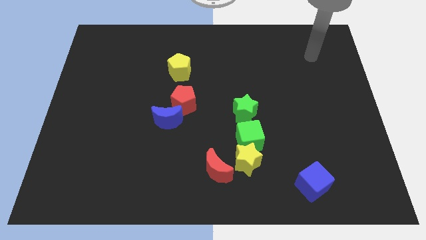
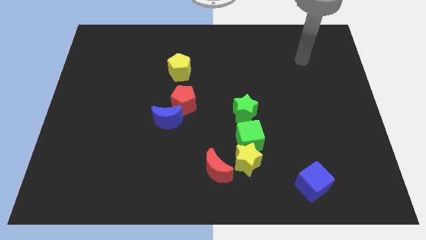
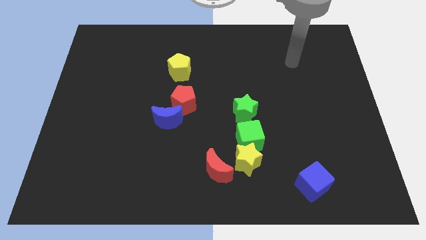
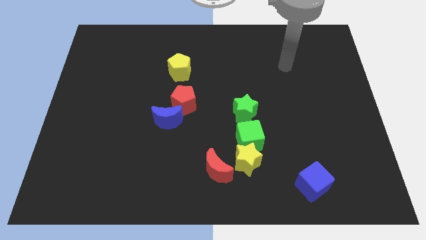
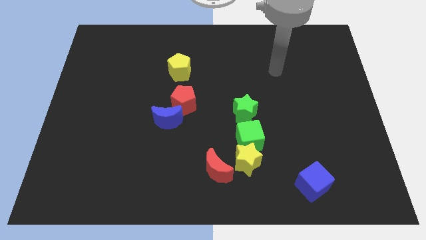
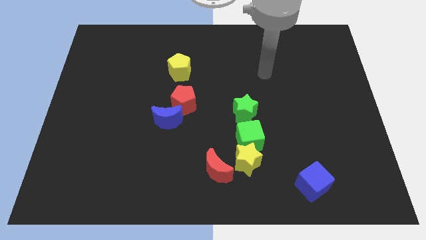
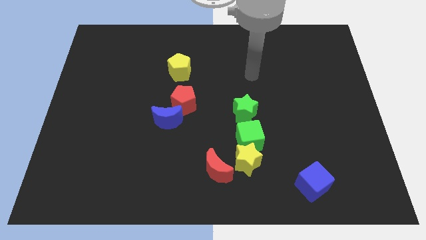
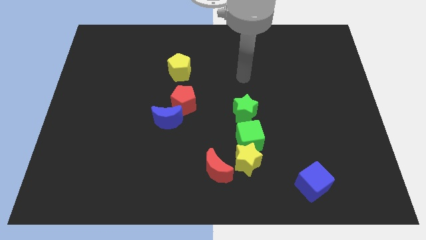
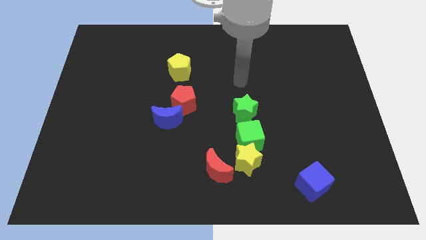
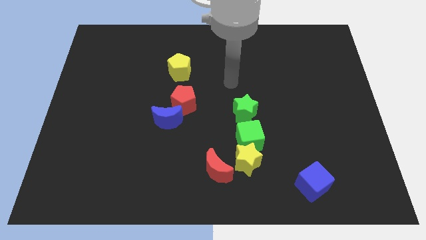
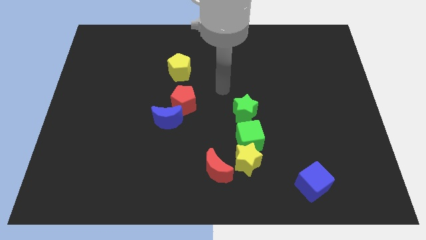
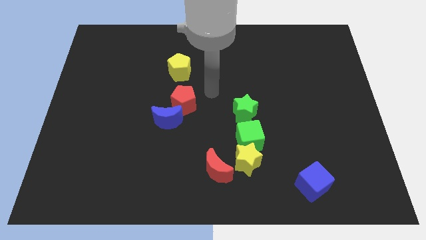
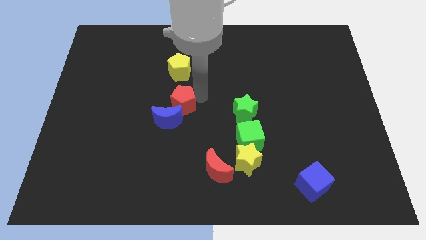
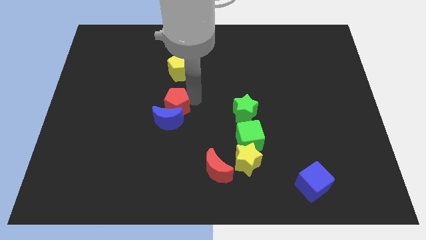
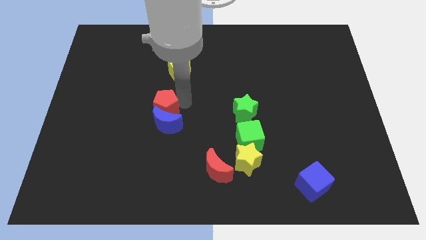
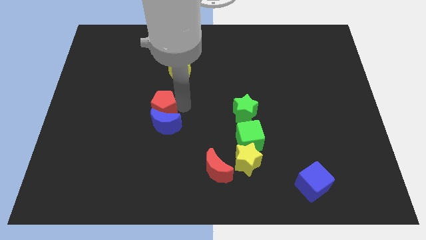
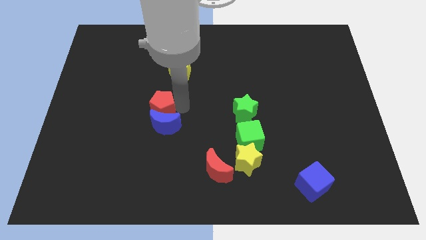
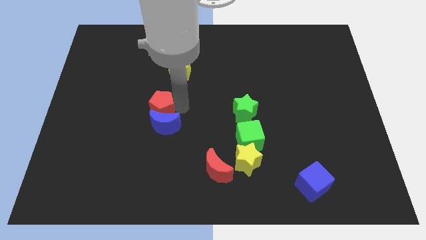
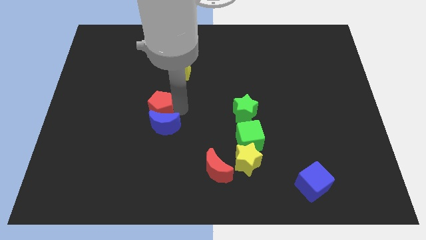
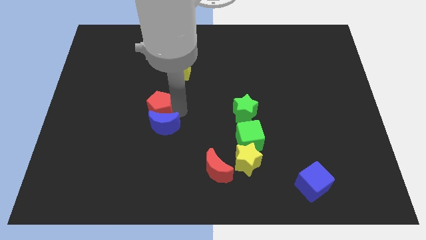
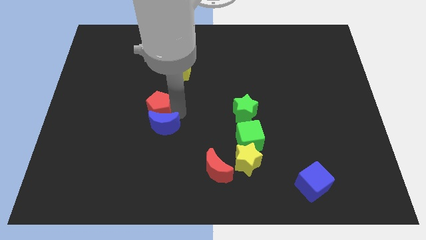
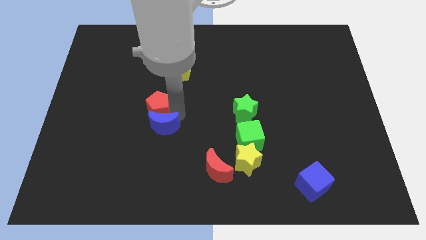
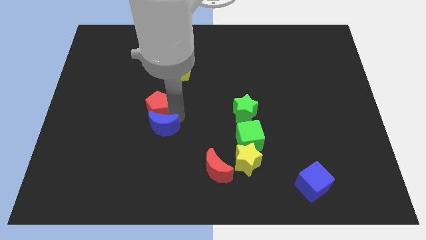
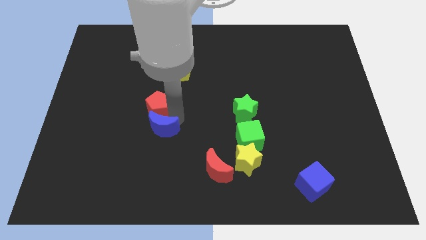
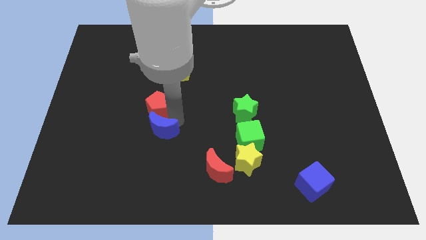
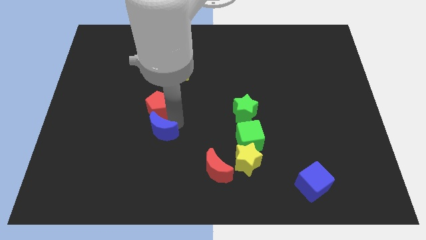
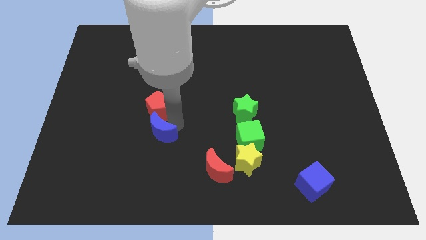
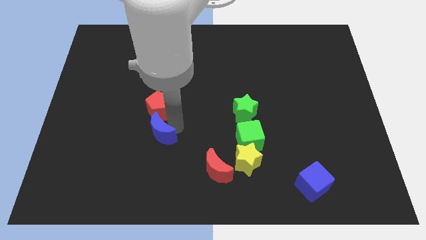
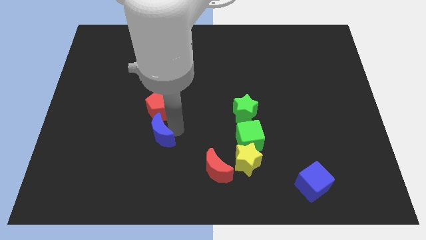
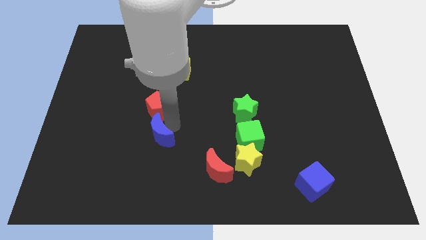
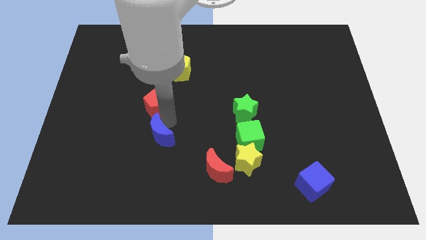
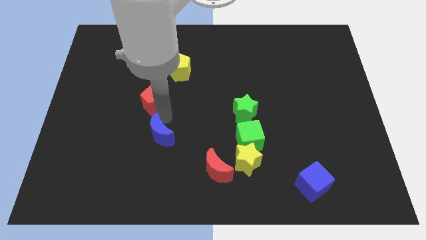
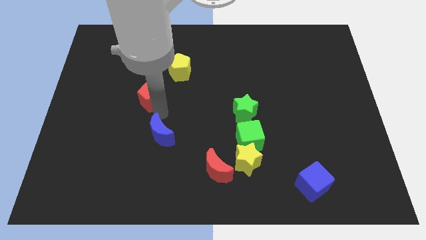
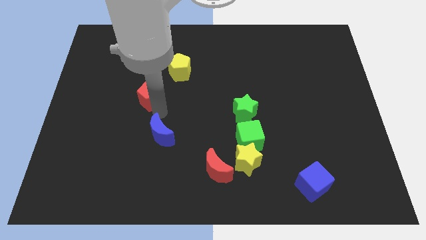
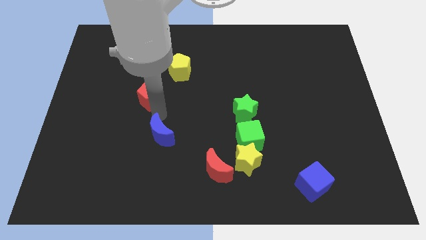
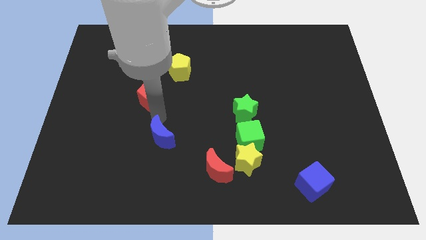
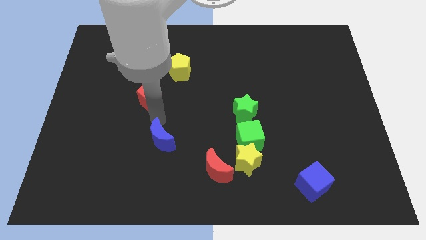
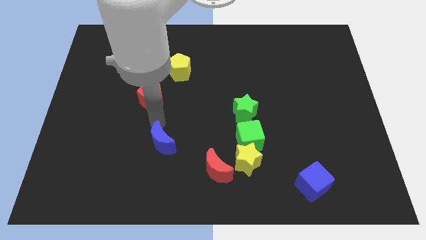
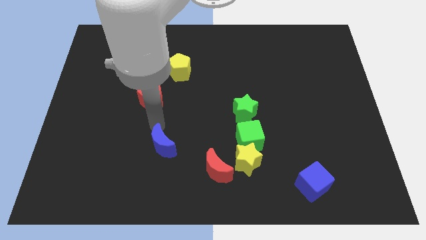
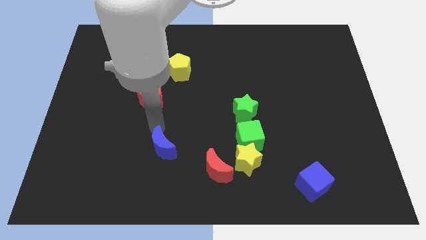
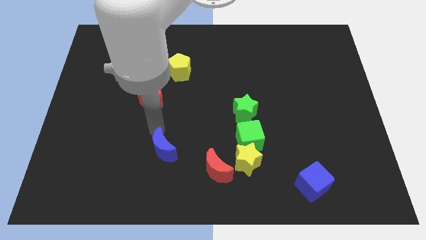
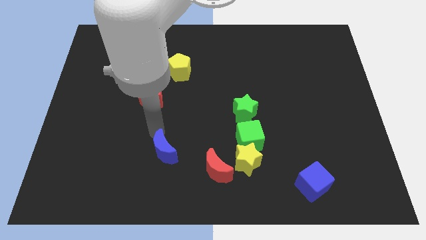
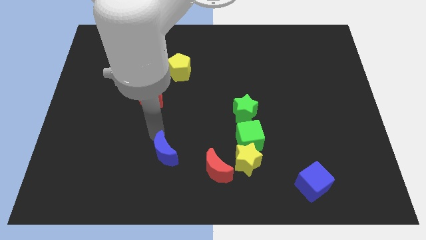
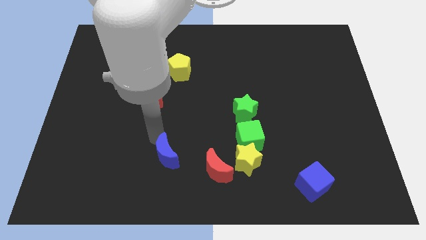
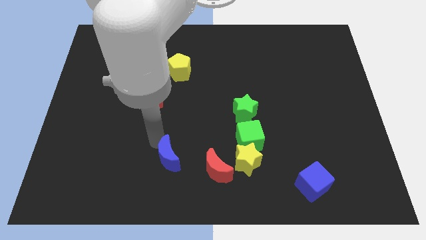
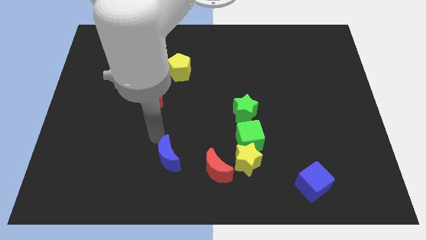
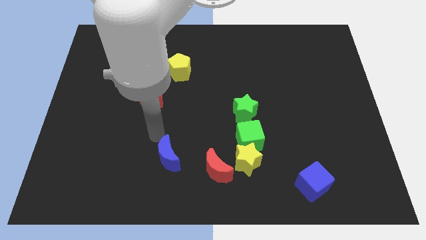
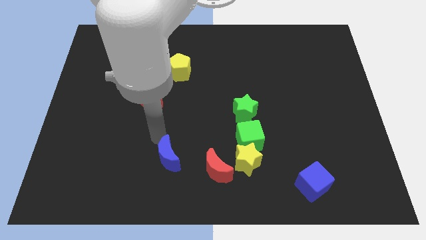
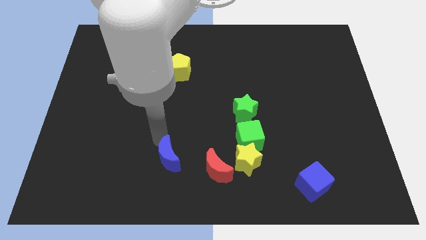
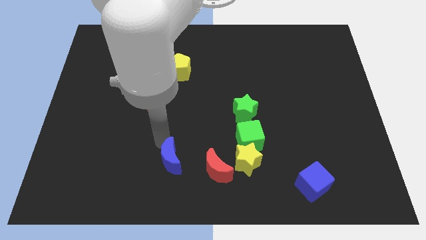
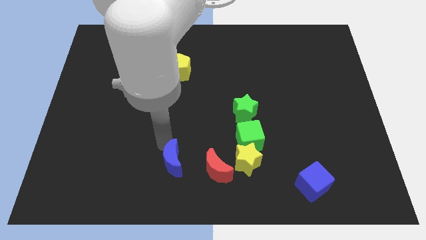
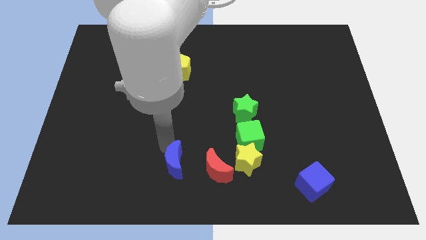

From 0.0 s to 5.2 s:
push the blue moon to the bottom side

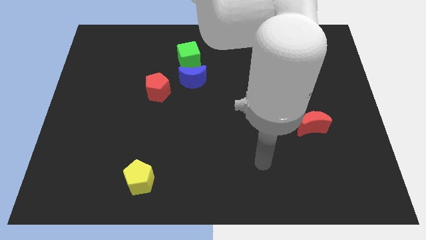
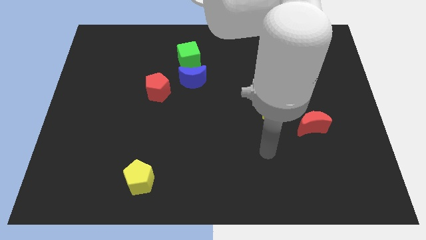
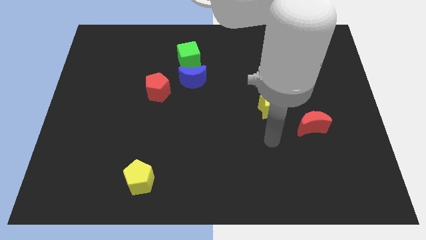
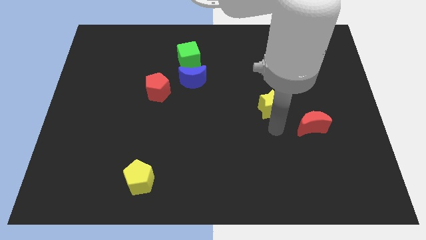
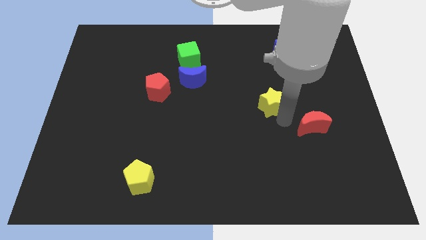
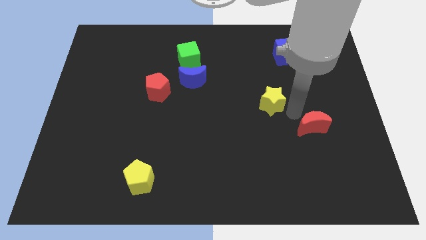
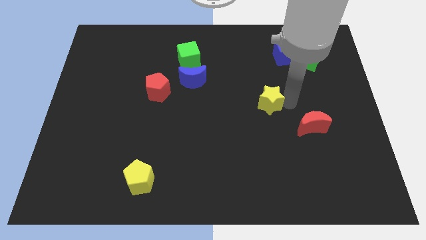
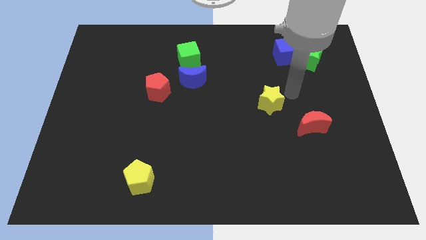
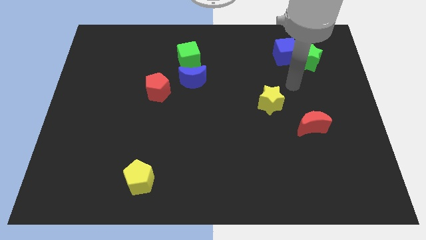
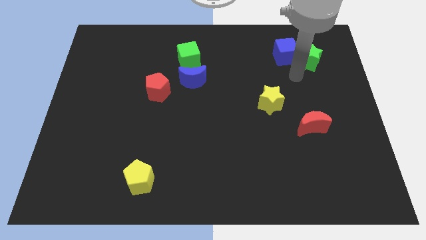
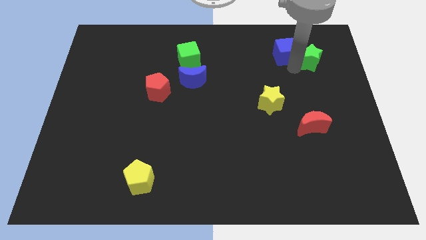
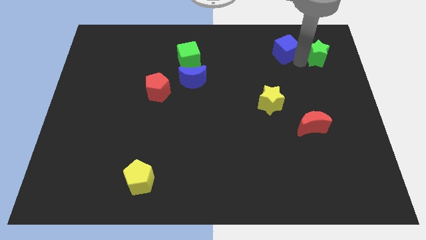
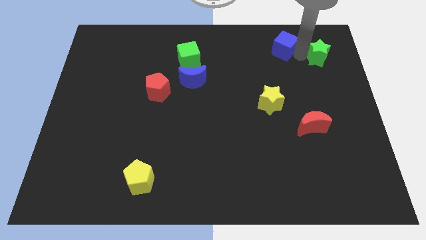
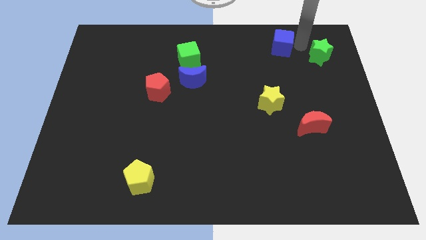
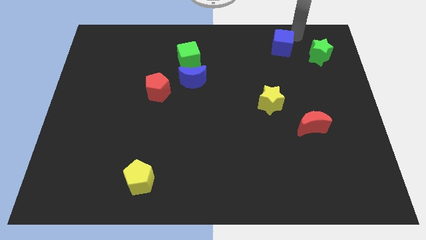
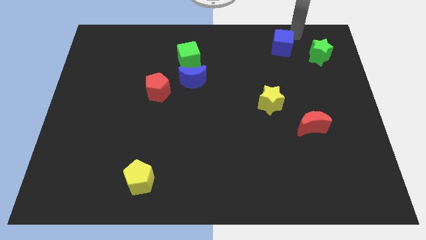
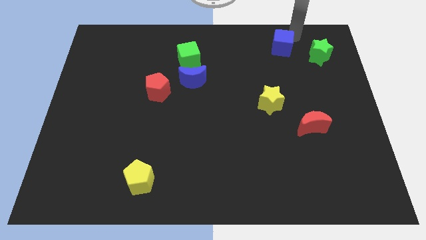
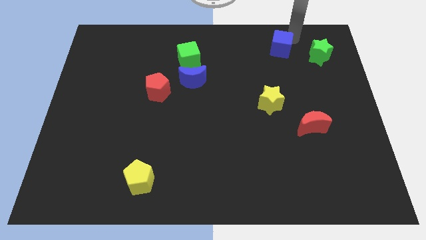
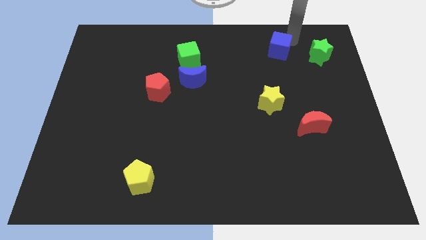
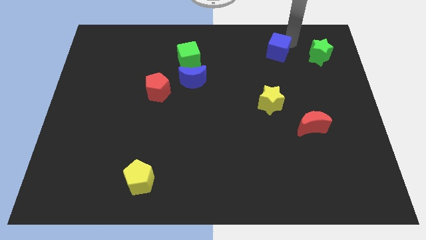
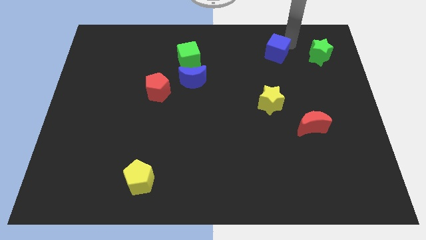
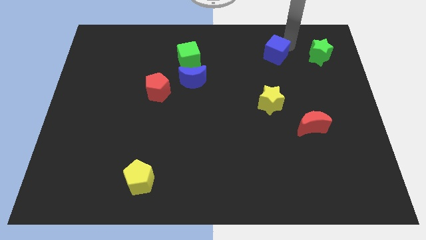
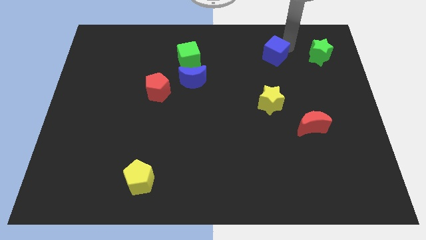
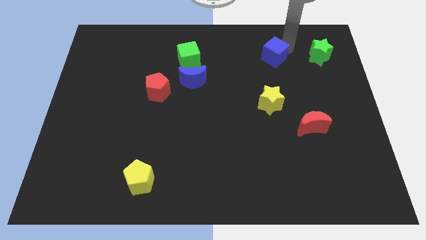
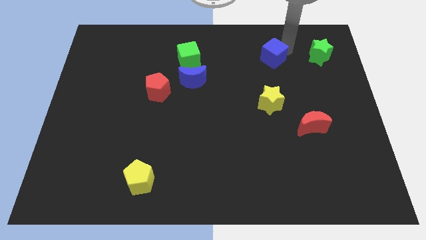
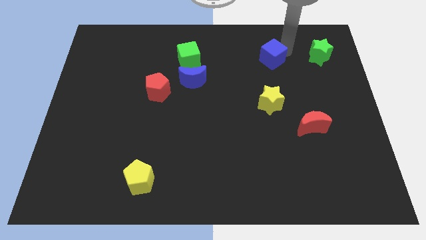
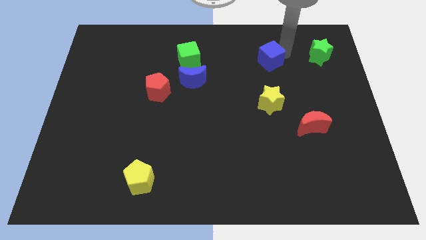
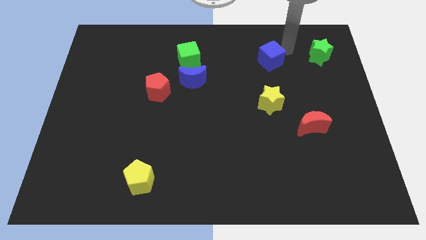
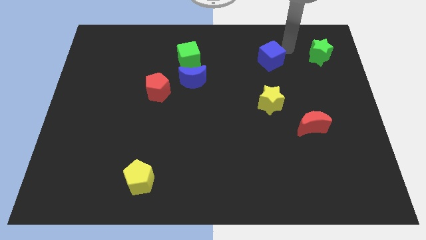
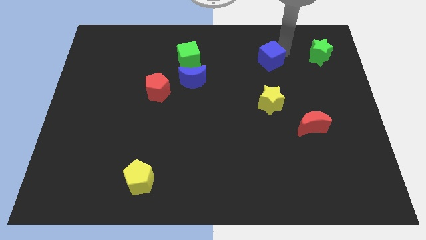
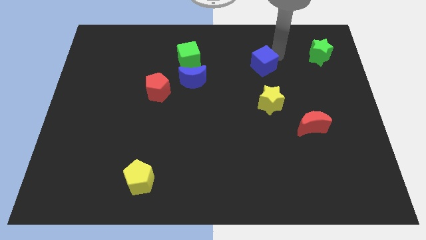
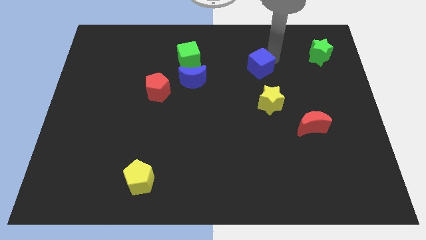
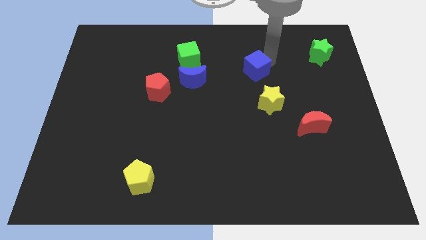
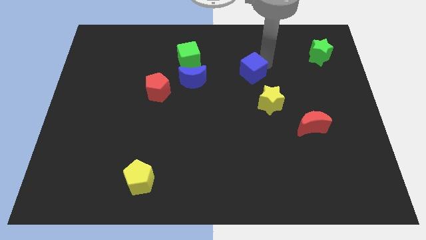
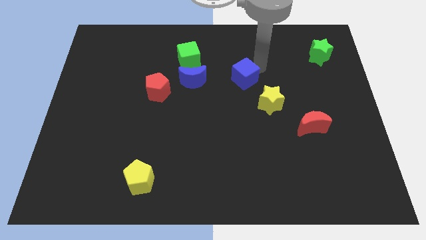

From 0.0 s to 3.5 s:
slide the blue cube to the middle of the board
